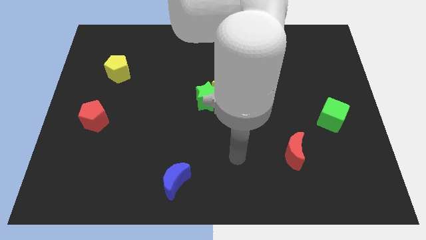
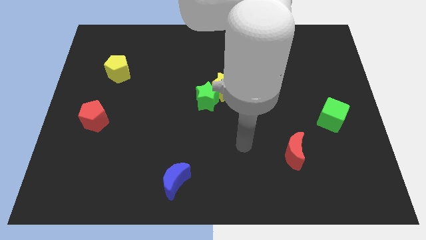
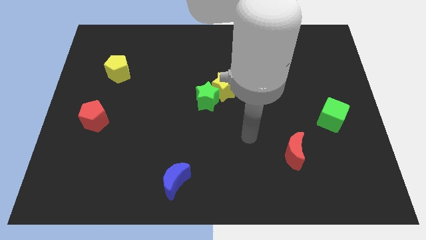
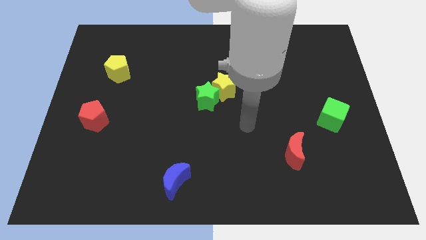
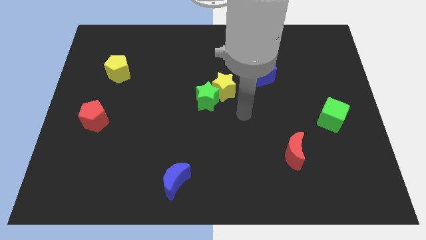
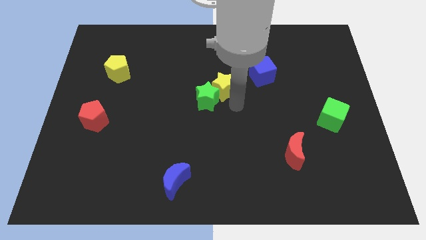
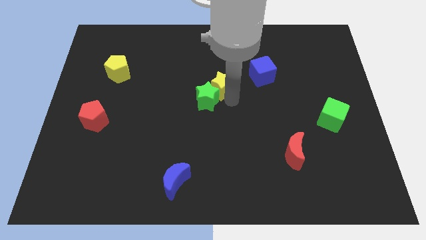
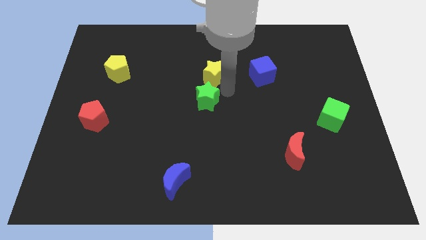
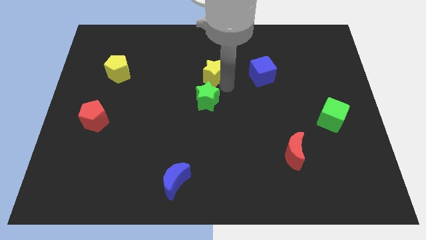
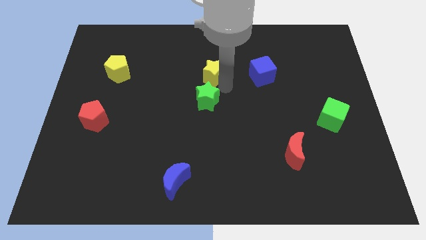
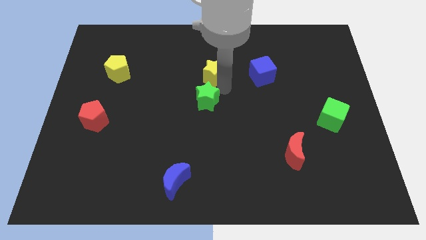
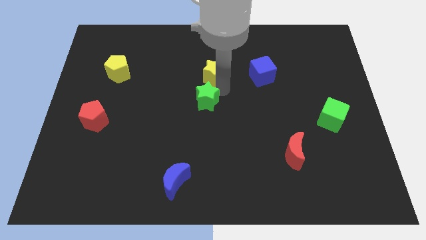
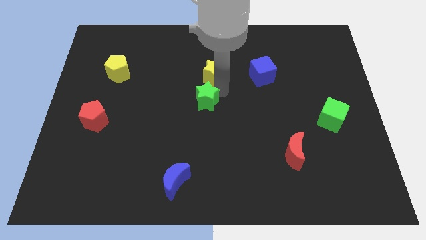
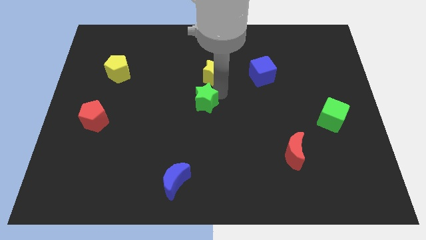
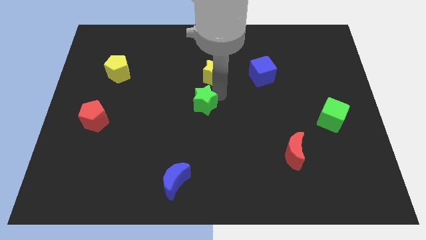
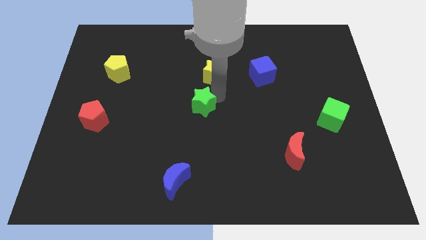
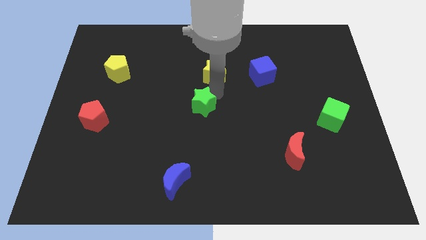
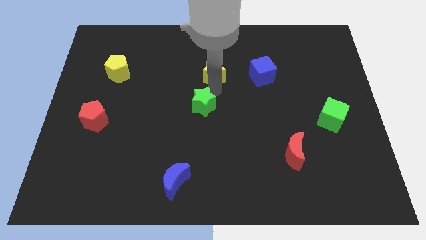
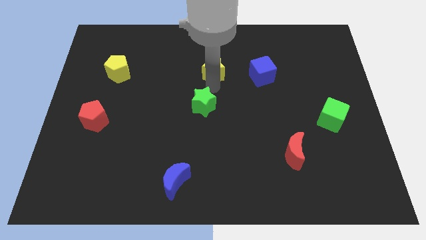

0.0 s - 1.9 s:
pull the green star apart from the yellow star

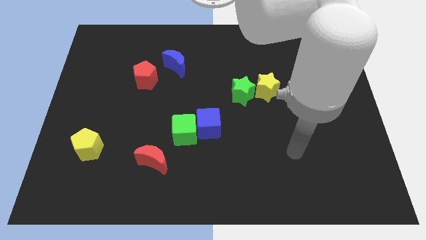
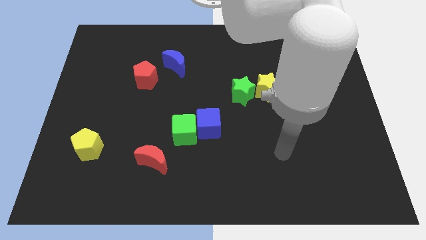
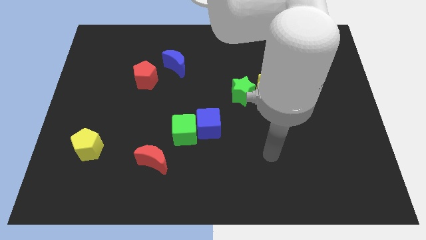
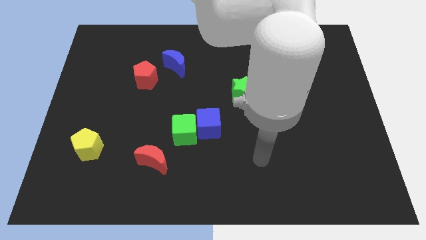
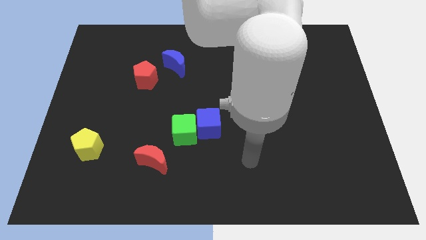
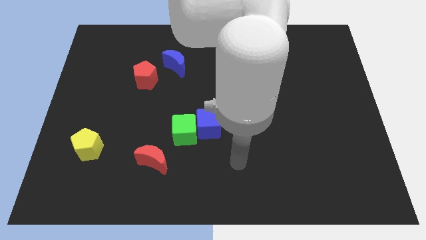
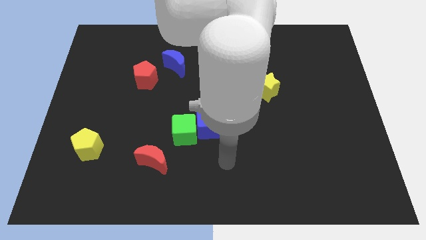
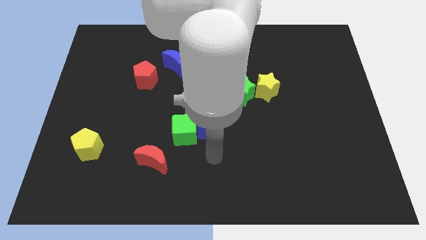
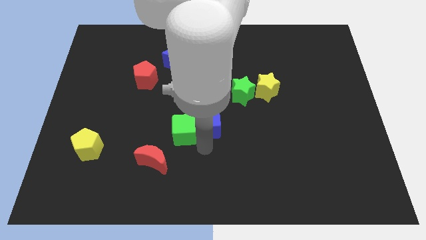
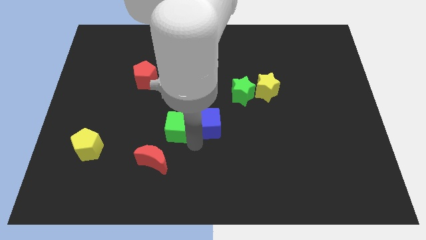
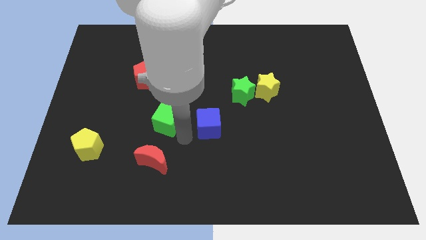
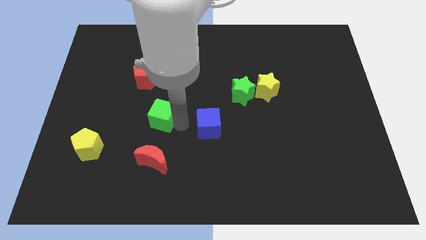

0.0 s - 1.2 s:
move the blue cube away from the green cube

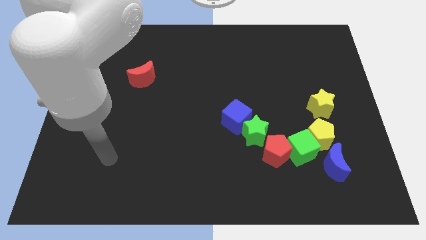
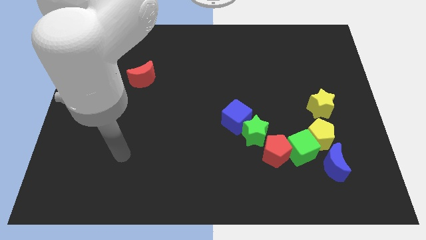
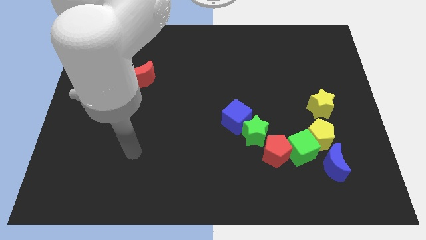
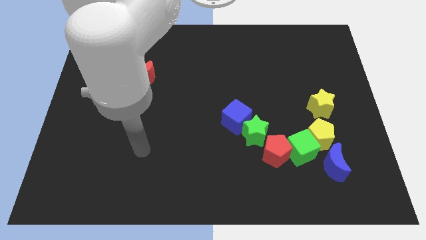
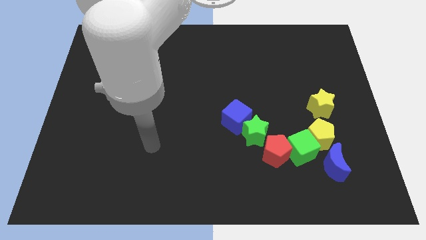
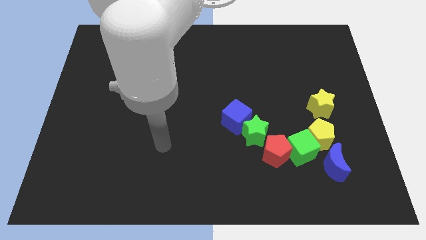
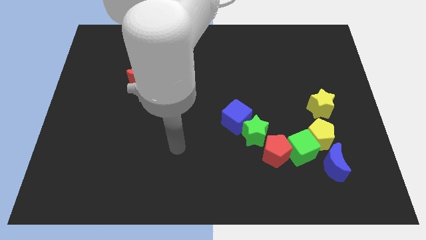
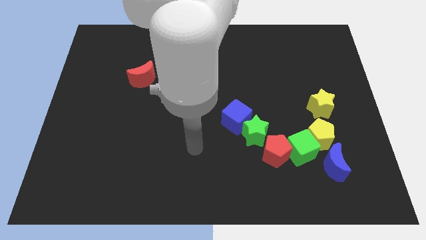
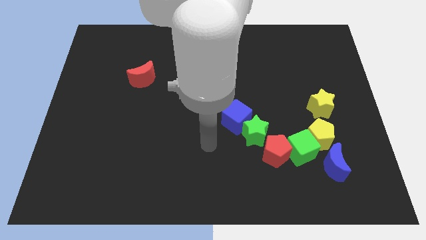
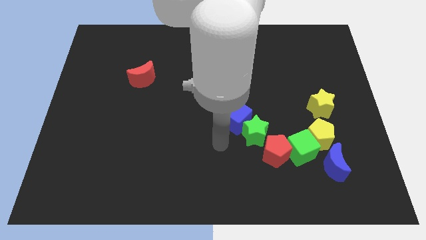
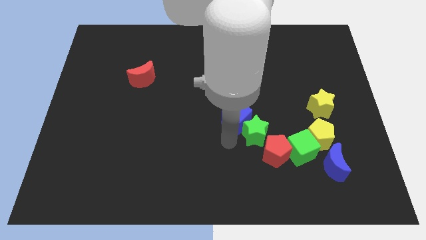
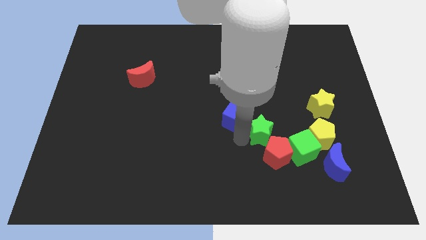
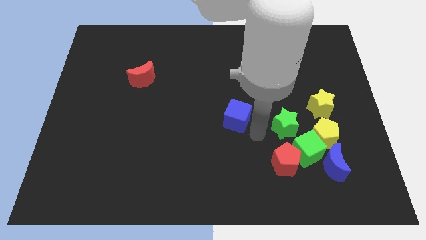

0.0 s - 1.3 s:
pull the blue cube apart from the green star

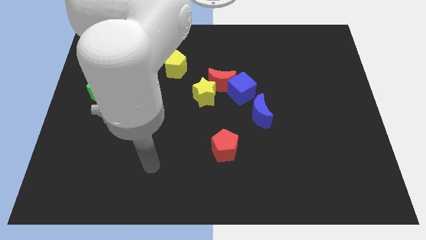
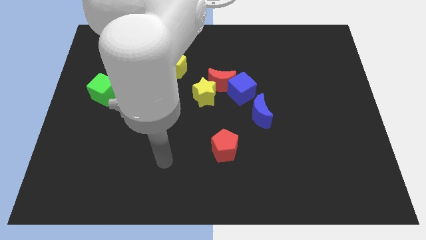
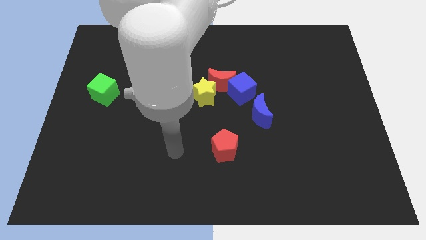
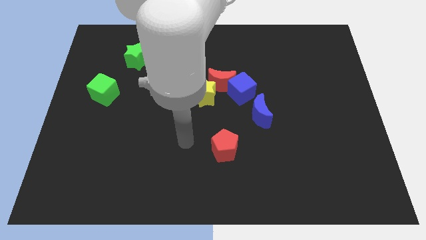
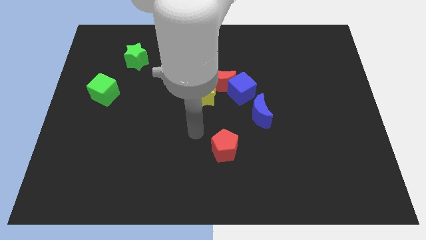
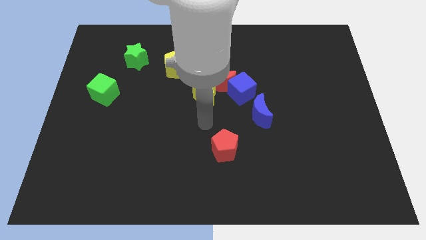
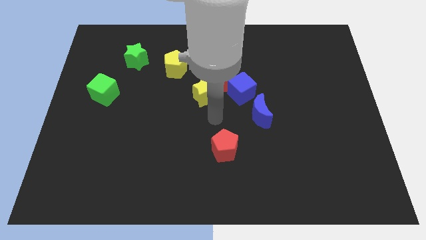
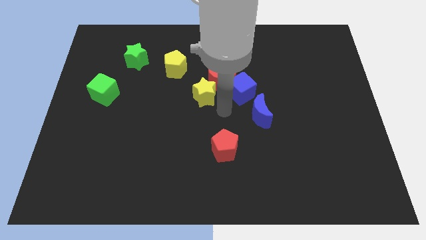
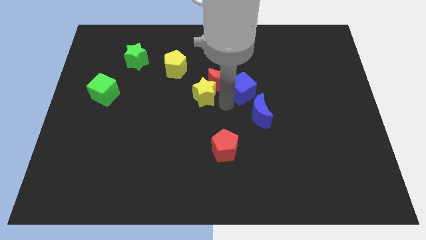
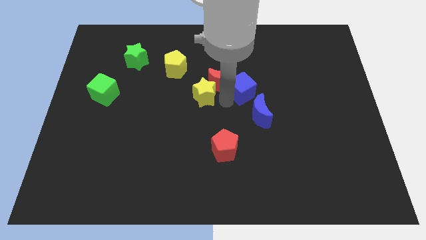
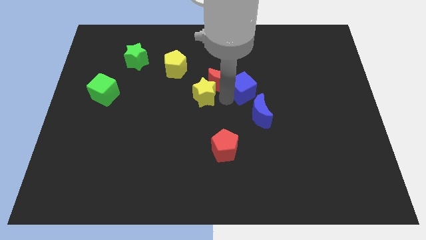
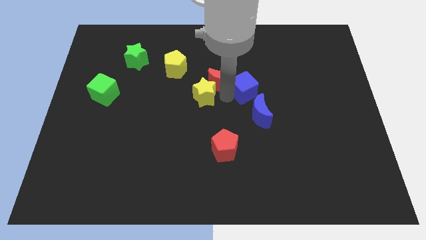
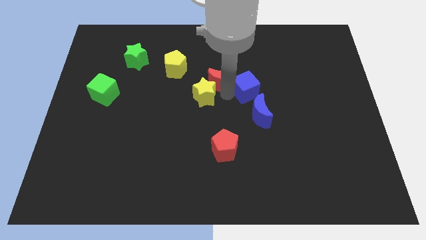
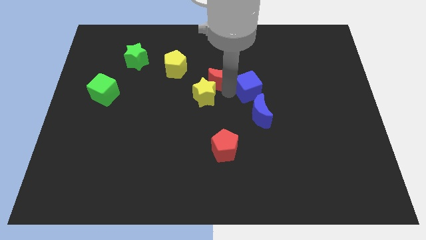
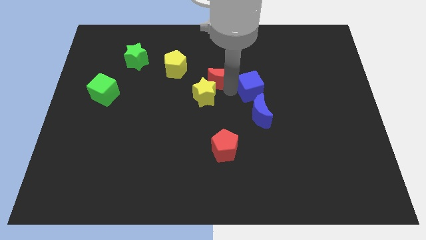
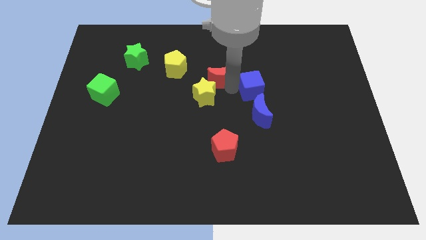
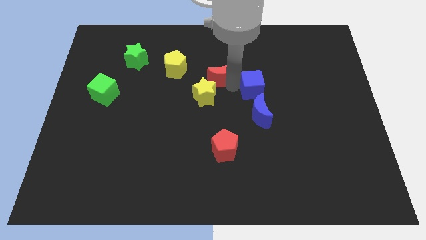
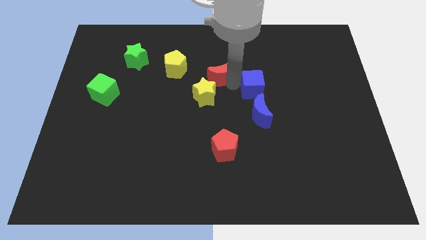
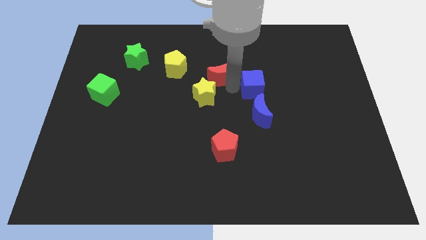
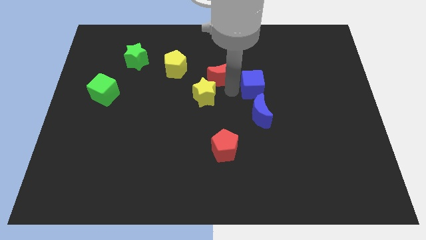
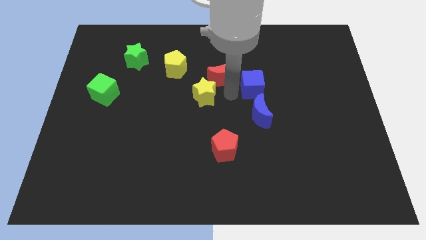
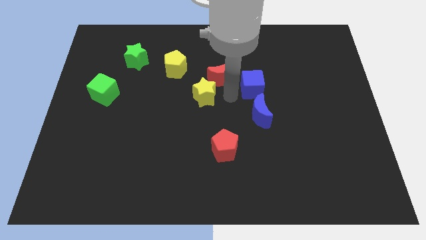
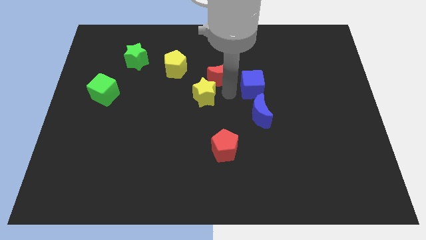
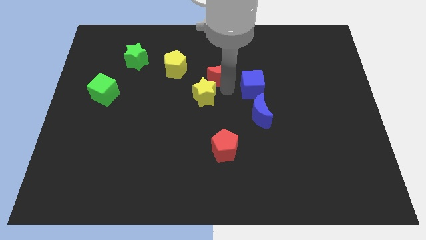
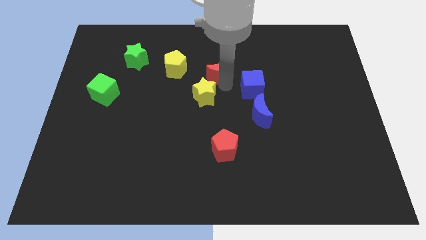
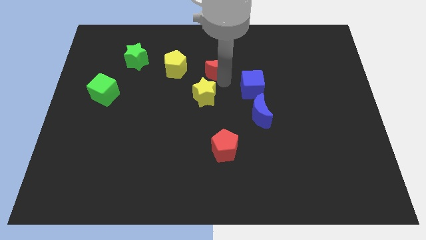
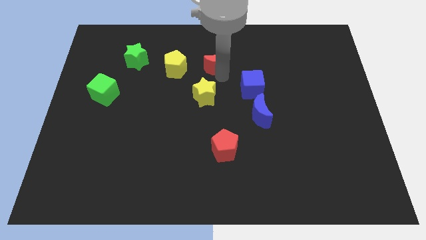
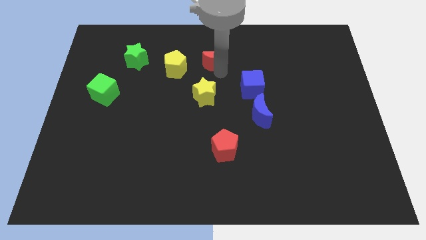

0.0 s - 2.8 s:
pull the red moon apart from the yellow star and blue cube

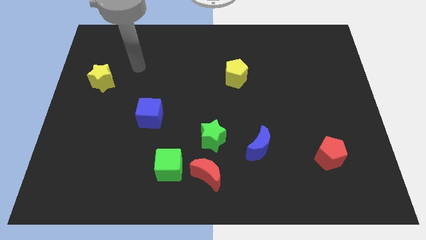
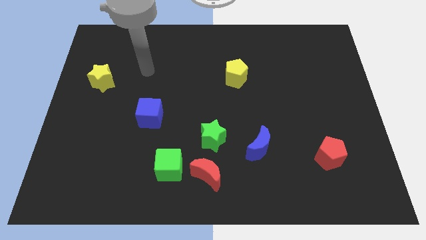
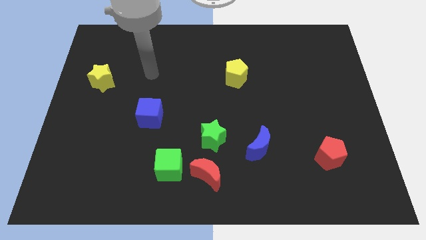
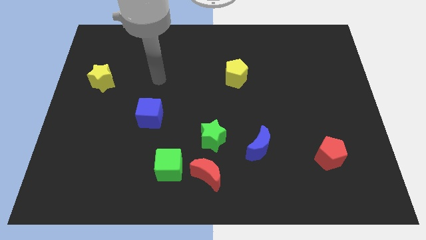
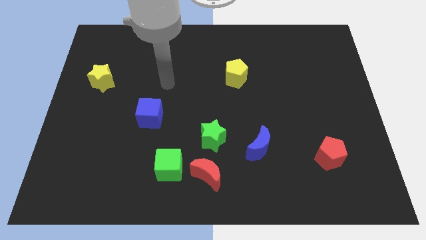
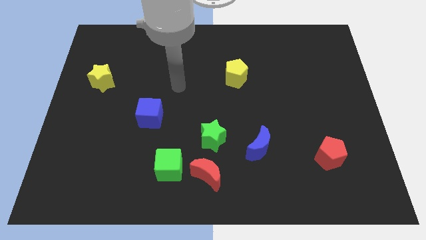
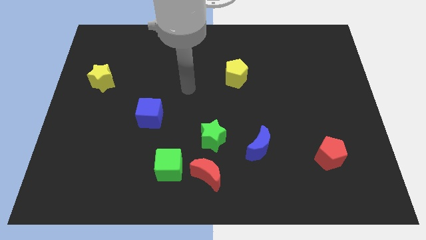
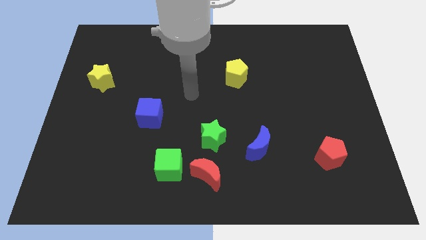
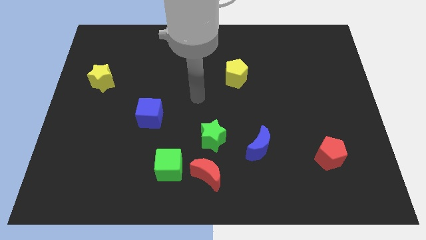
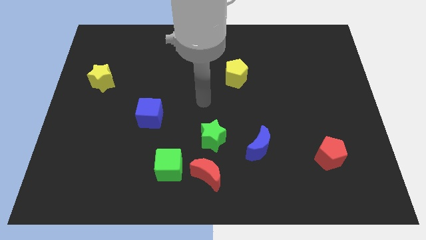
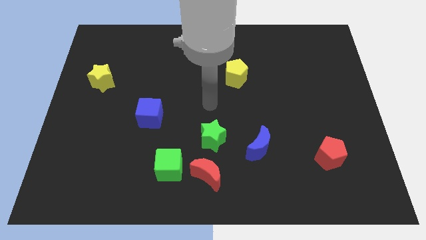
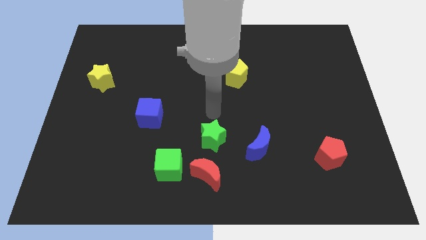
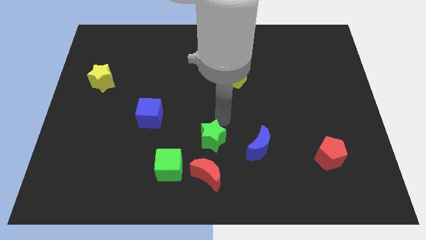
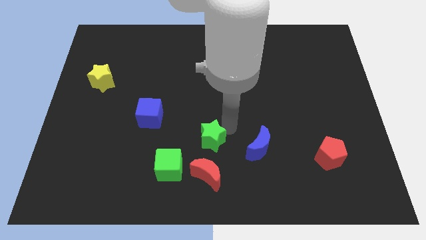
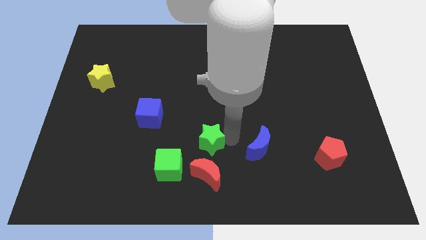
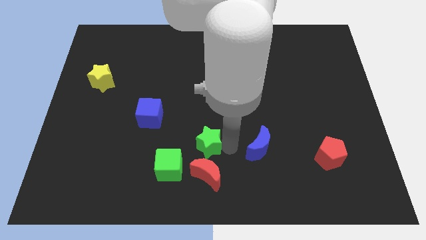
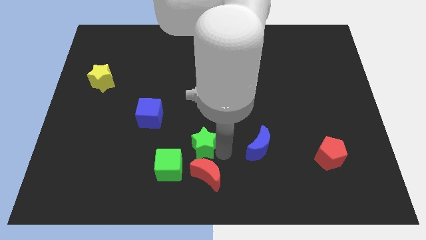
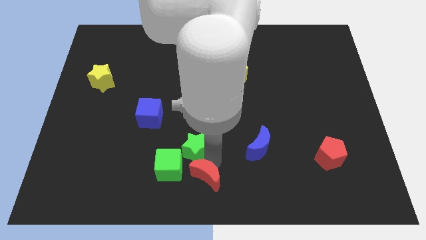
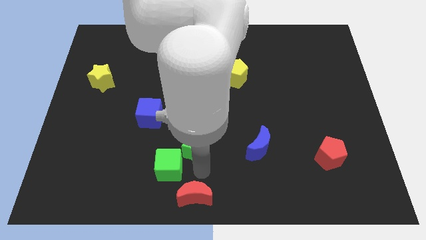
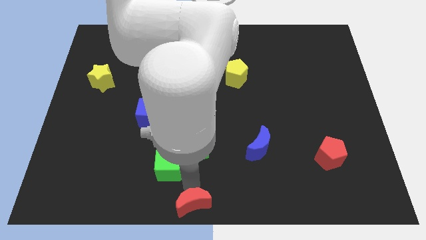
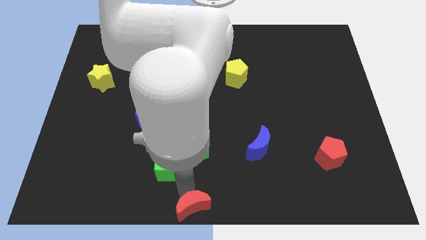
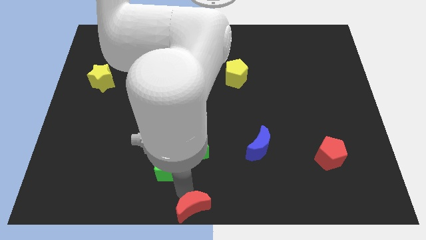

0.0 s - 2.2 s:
move the green cube away from the red moon
